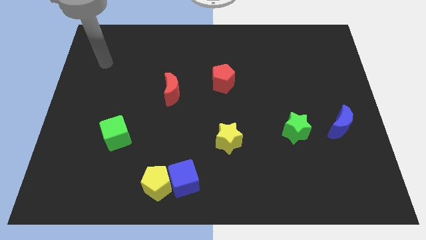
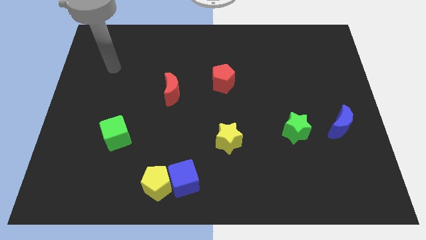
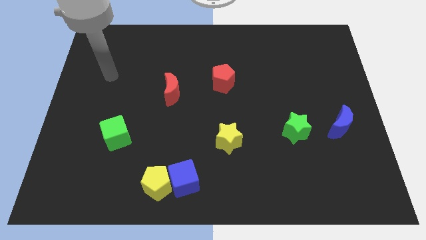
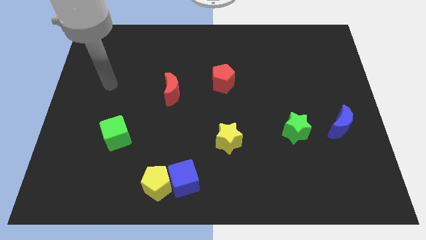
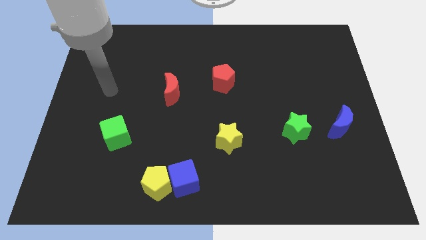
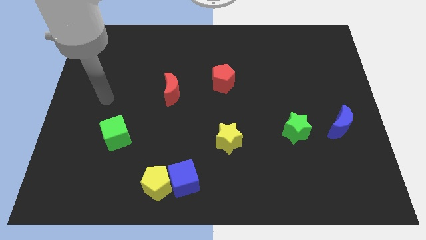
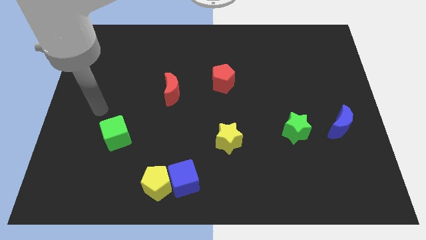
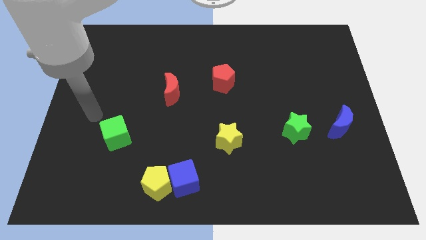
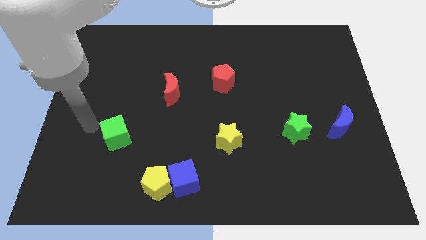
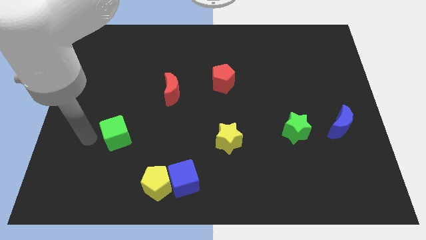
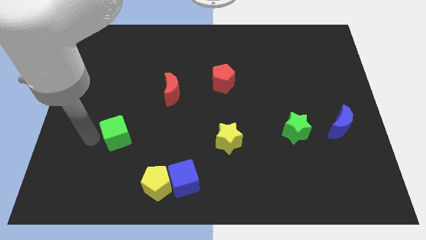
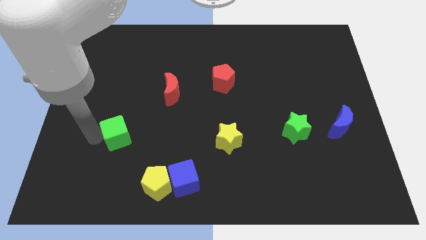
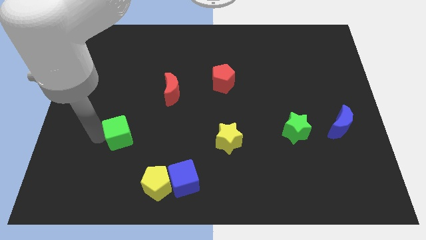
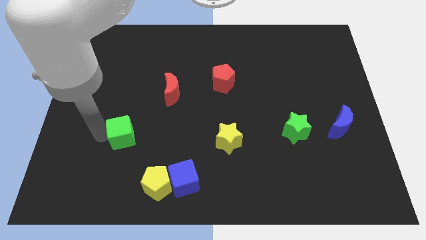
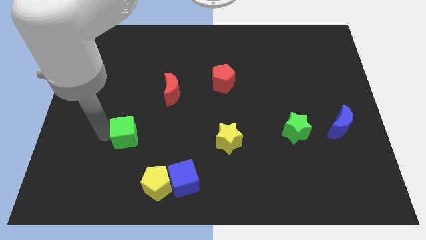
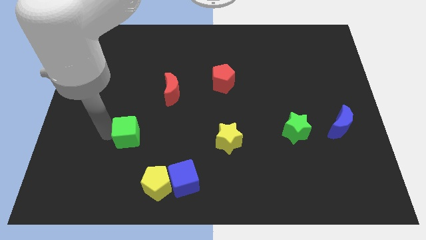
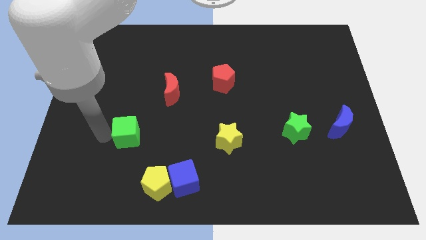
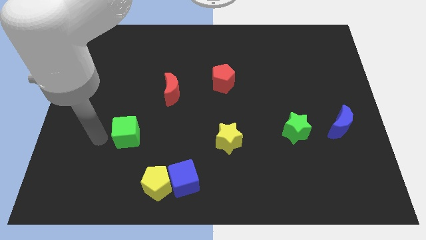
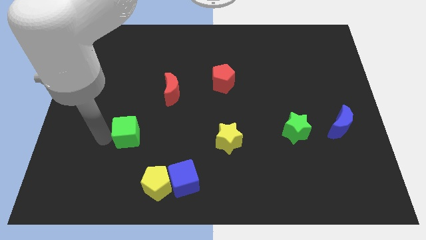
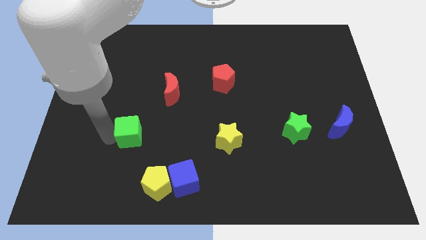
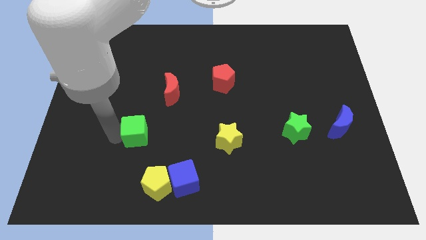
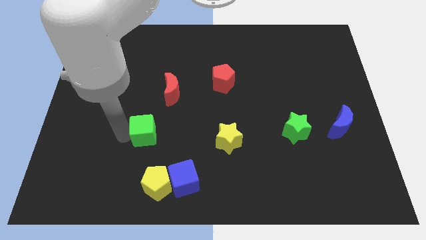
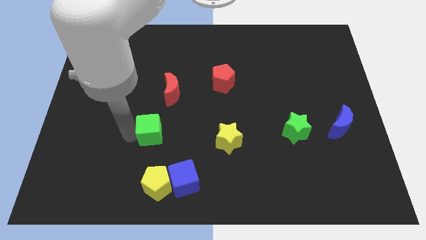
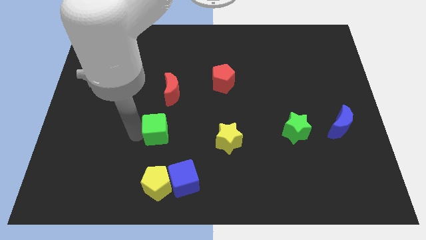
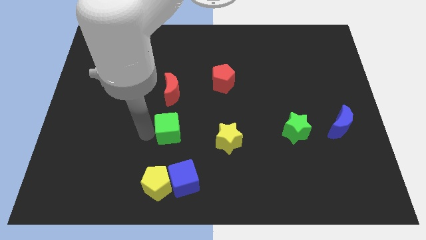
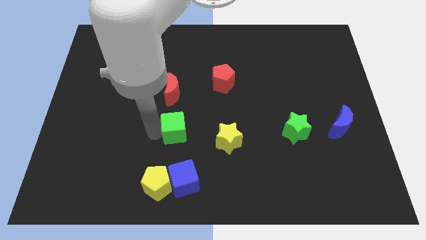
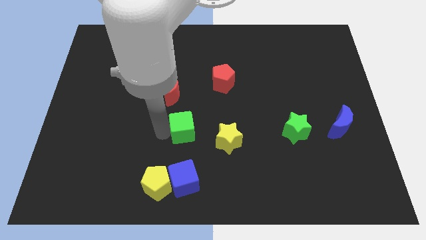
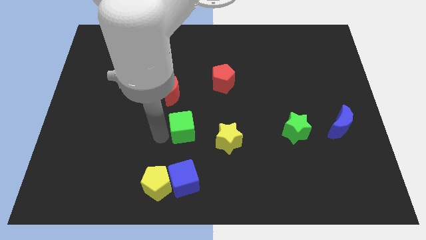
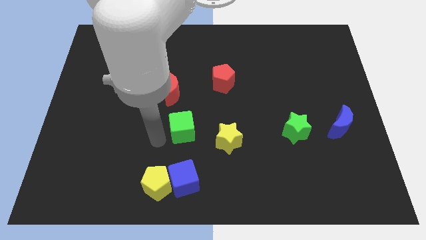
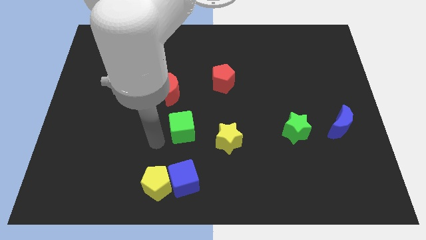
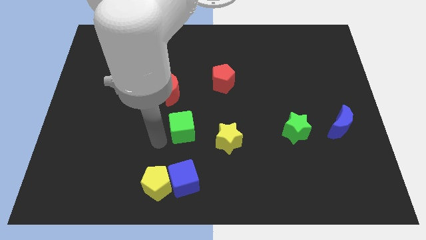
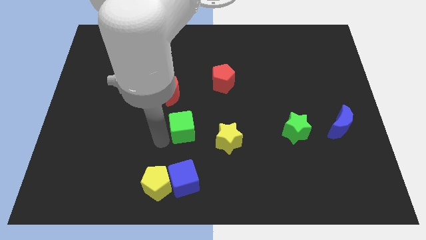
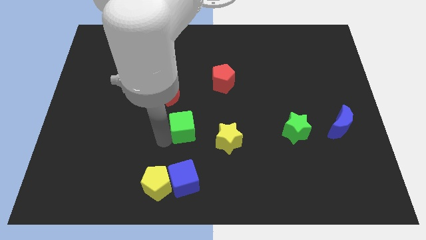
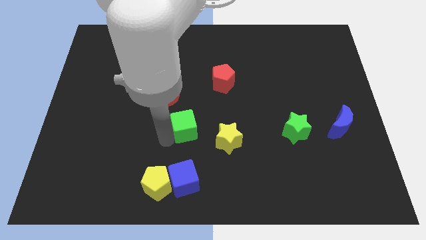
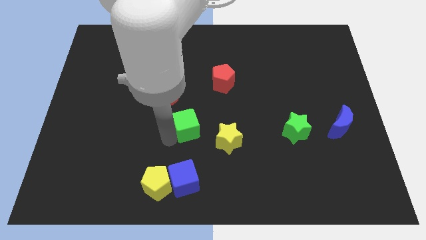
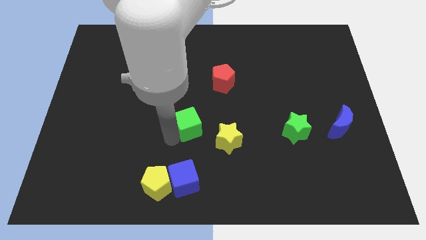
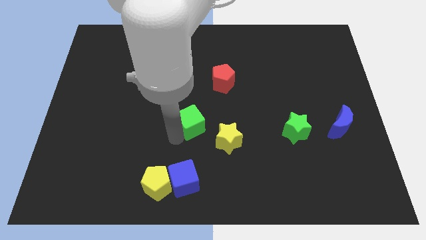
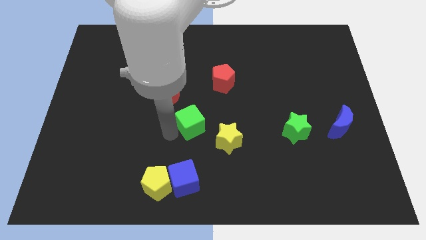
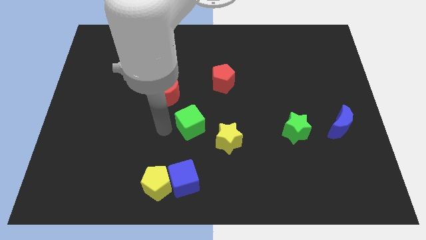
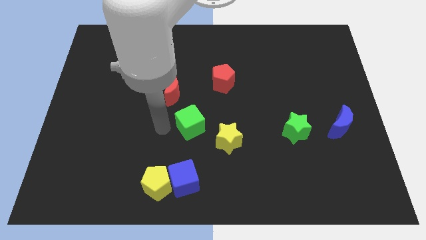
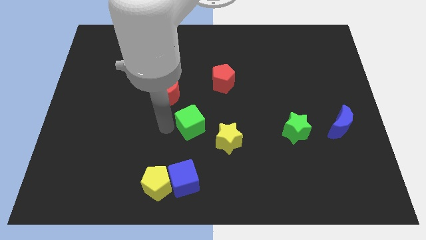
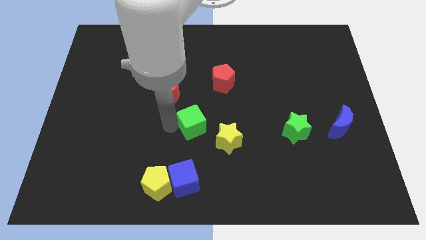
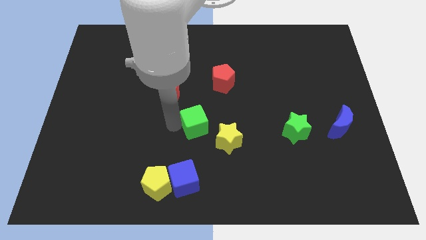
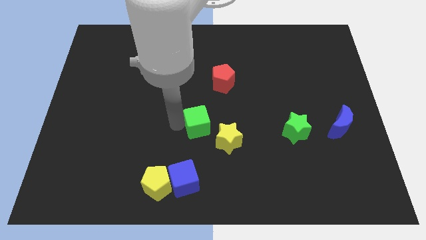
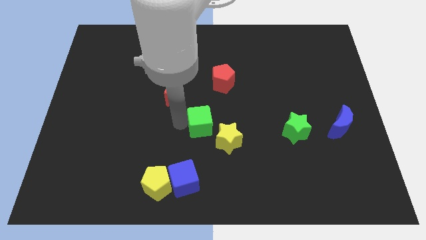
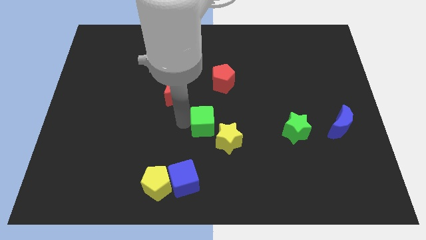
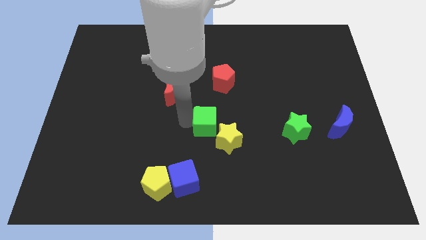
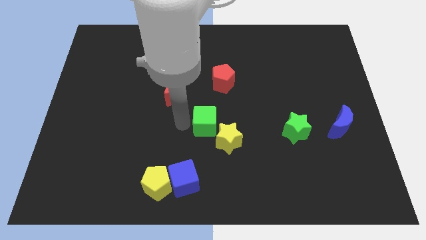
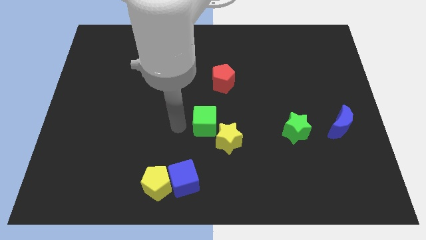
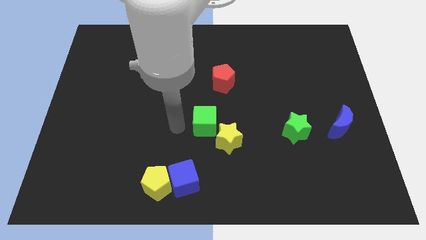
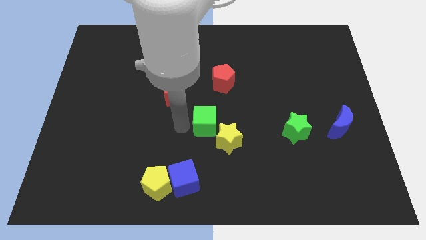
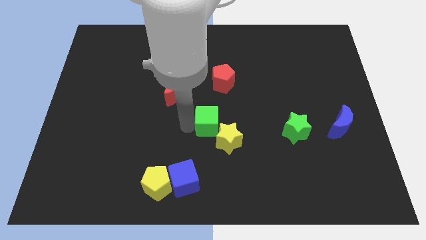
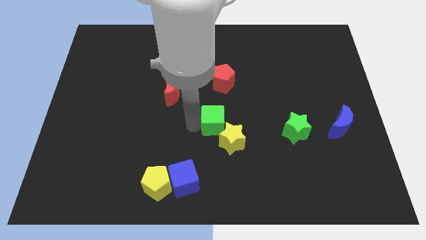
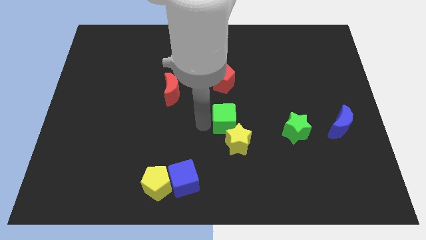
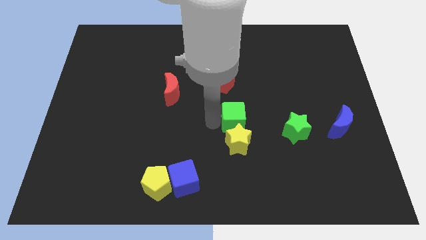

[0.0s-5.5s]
put the green cube diagonally up and to the right of the yellow star

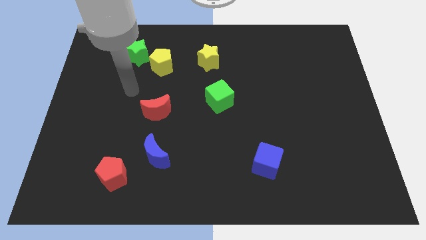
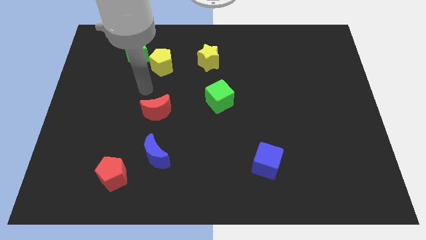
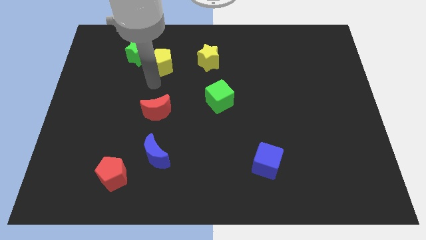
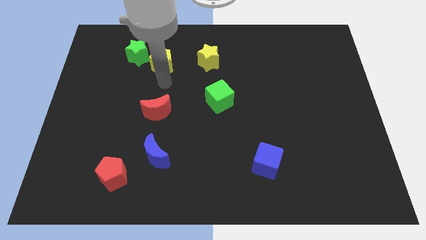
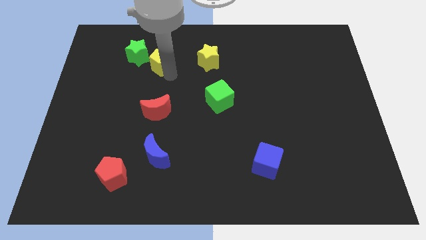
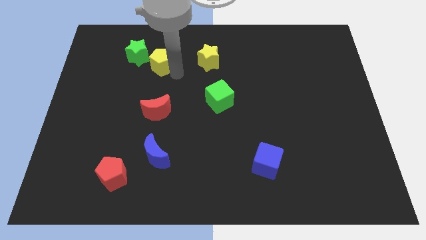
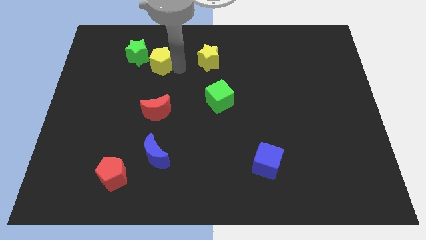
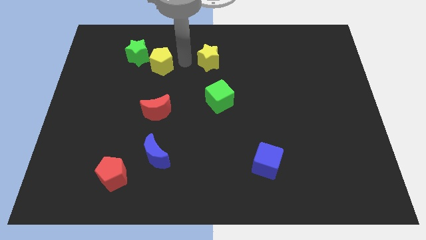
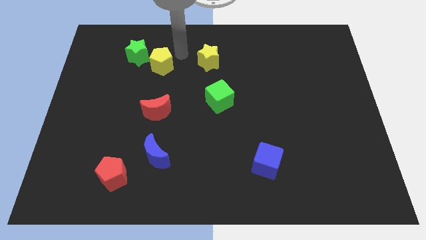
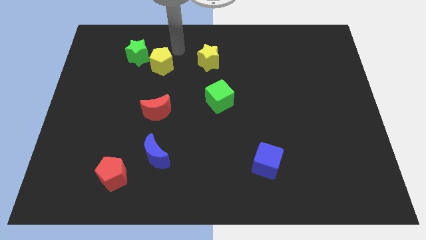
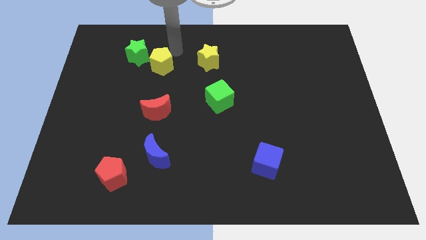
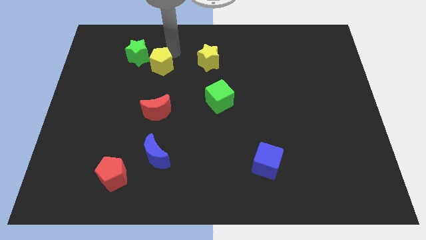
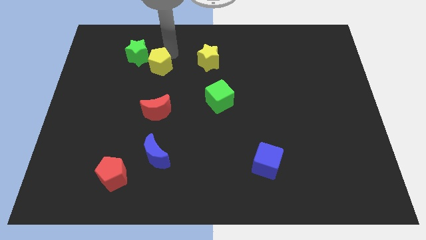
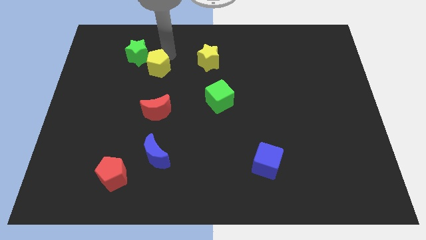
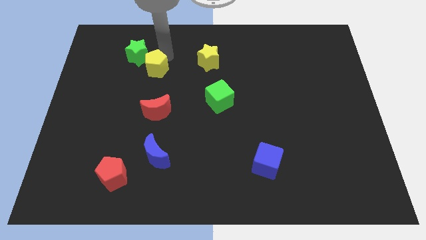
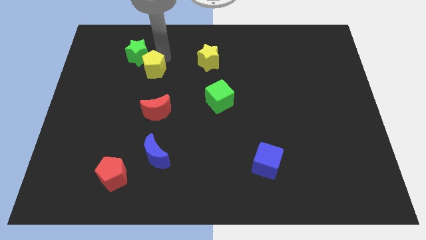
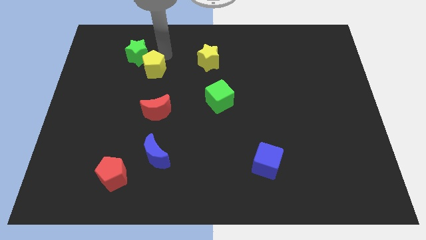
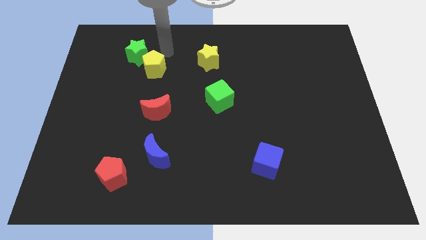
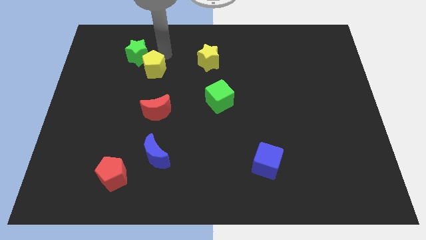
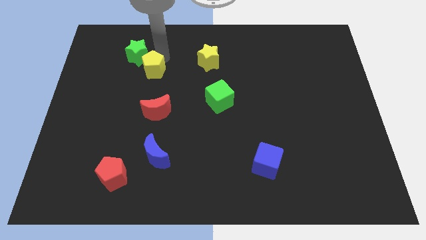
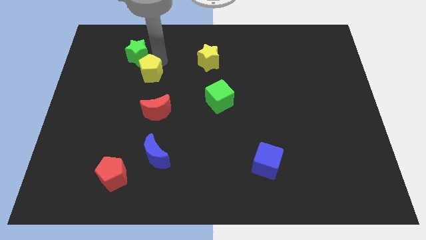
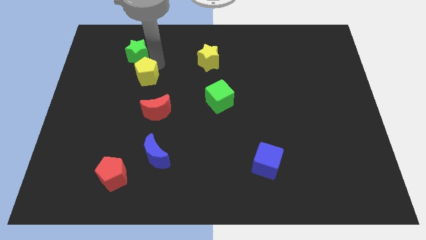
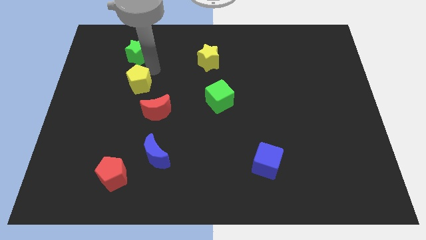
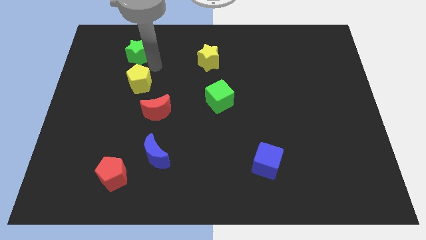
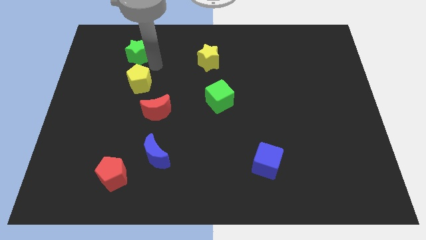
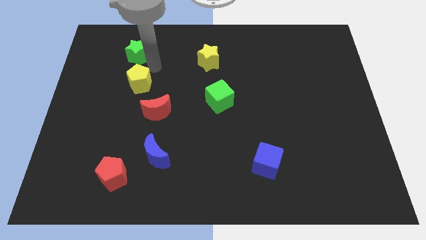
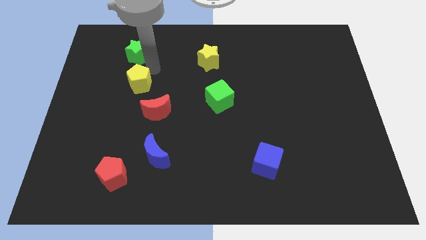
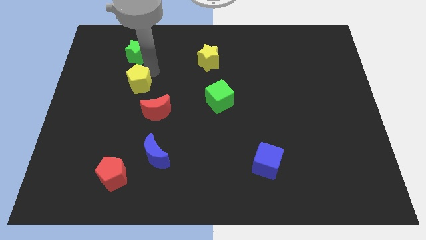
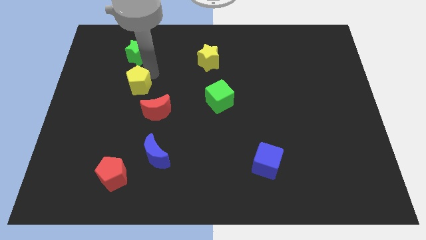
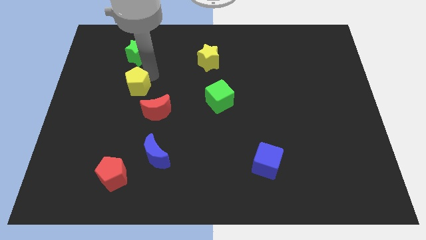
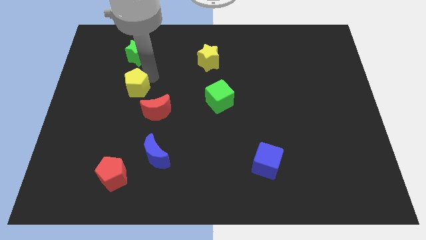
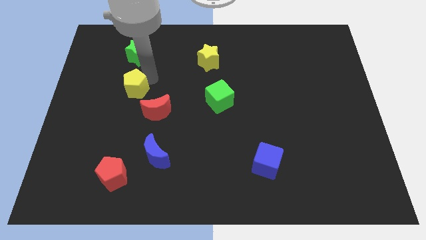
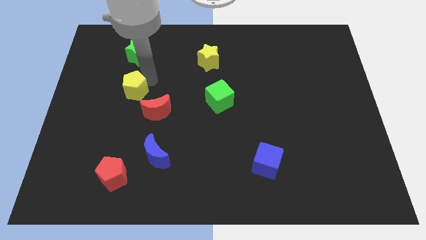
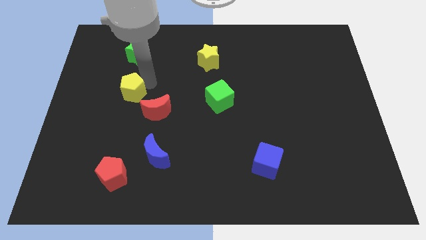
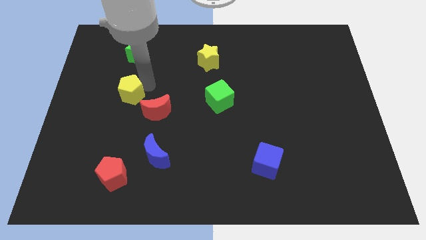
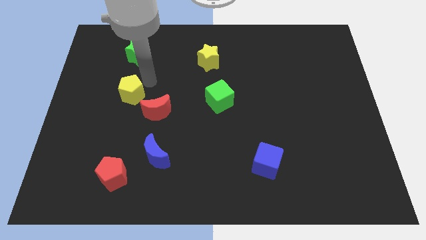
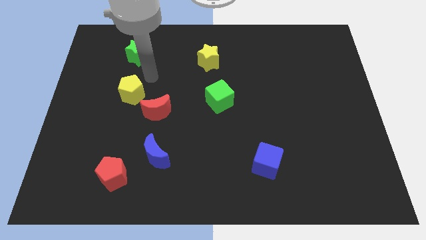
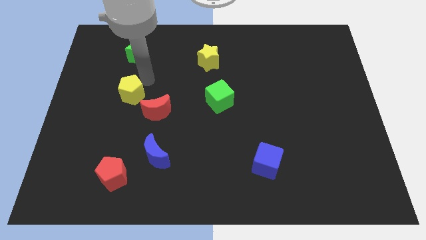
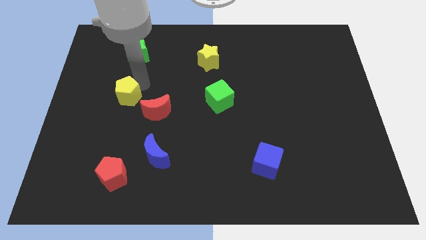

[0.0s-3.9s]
put the yellow pentagon just left of the red moon
